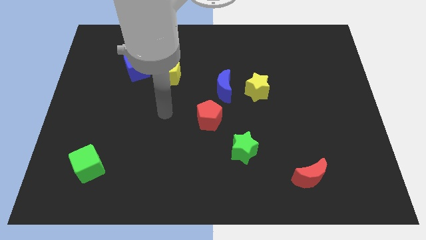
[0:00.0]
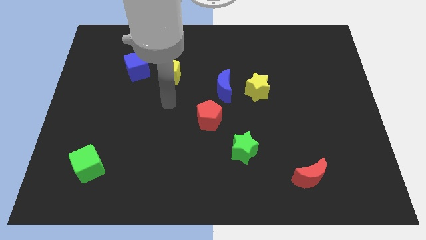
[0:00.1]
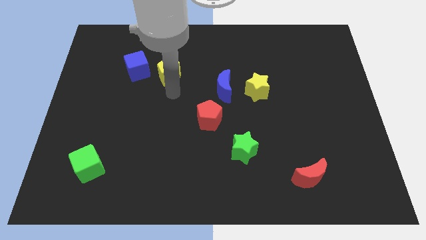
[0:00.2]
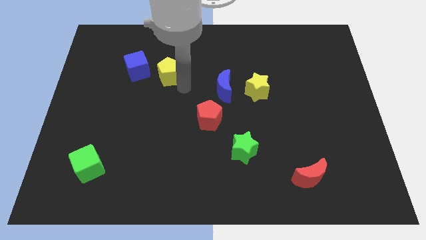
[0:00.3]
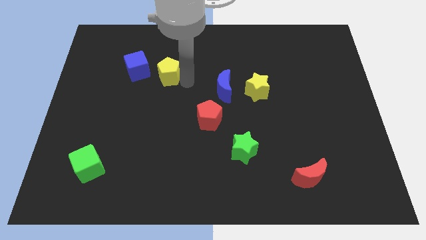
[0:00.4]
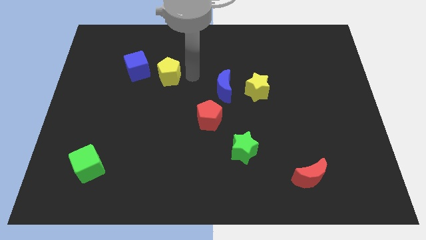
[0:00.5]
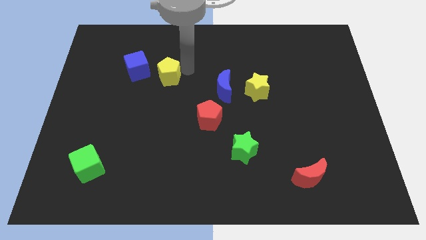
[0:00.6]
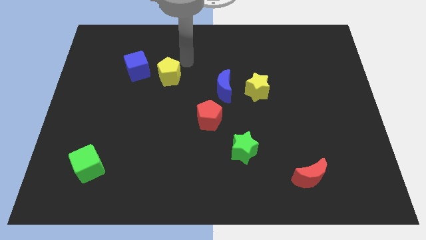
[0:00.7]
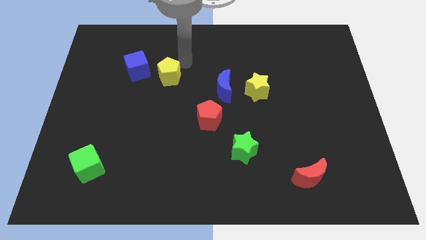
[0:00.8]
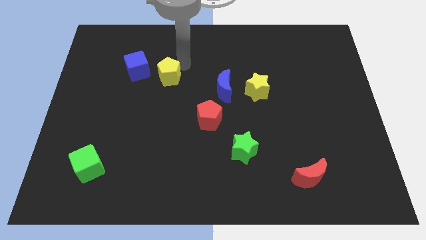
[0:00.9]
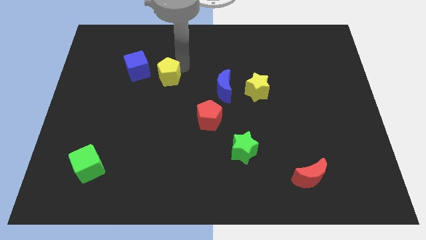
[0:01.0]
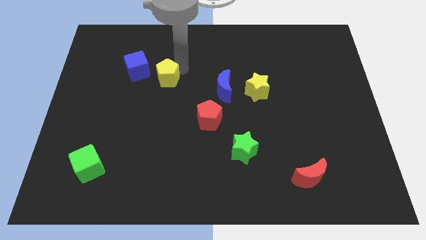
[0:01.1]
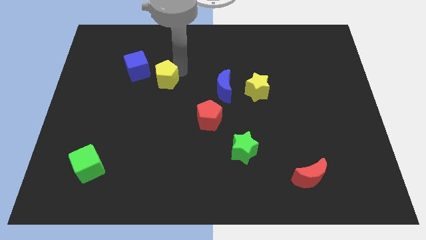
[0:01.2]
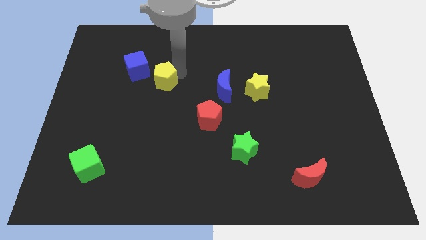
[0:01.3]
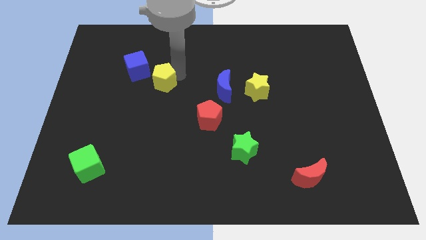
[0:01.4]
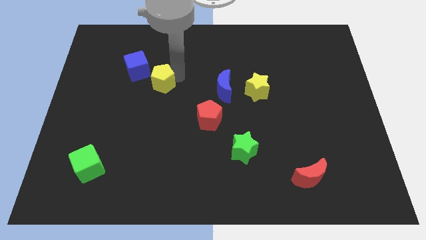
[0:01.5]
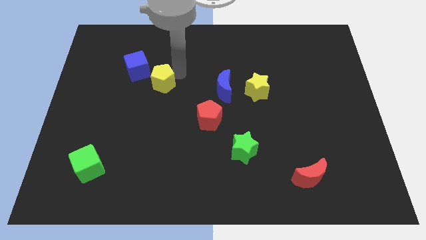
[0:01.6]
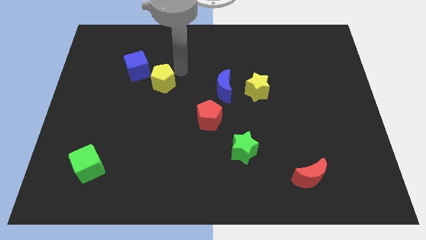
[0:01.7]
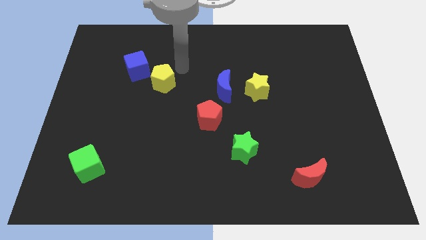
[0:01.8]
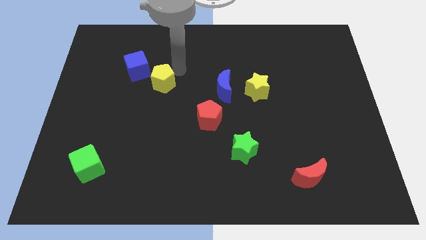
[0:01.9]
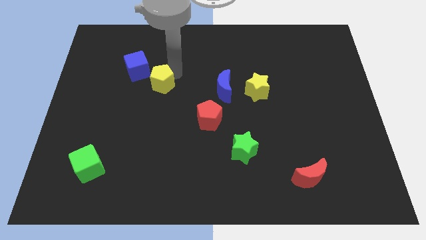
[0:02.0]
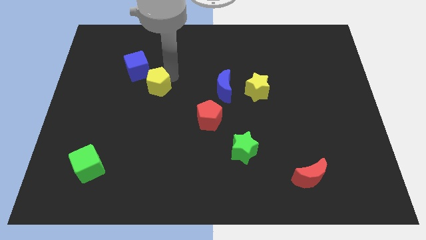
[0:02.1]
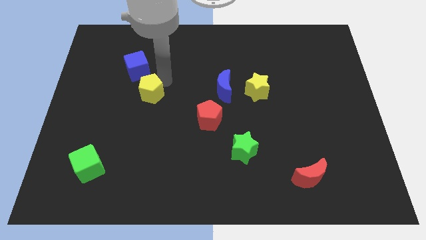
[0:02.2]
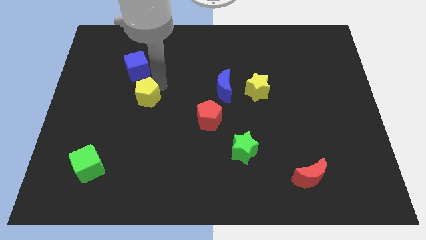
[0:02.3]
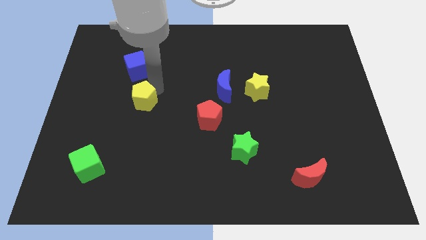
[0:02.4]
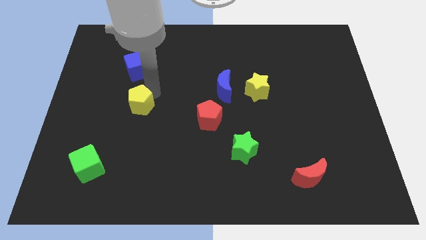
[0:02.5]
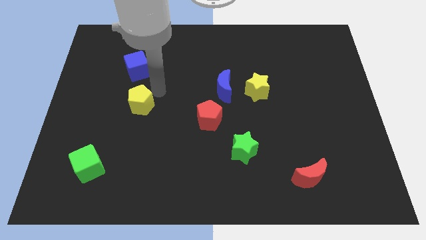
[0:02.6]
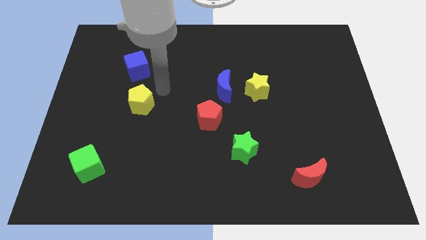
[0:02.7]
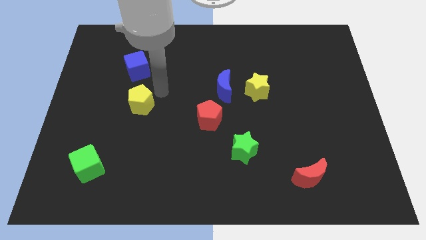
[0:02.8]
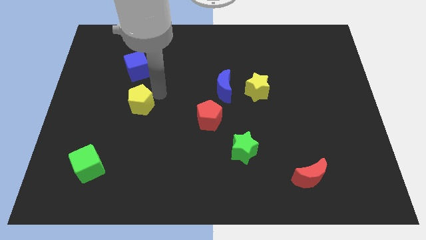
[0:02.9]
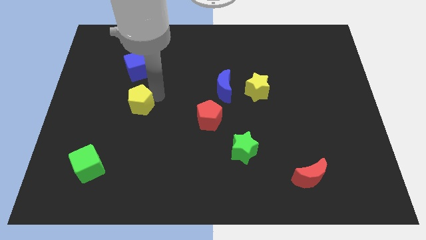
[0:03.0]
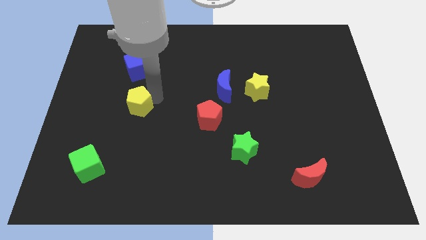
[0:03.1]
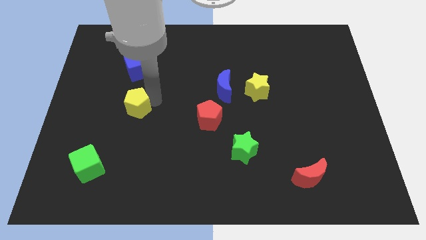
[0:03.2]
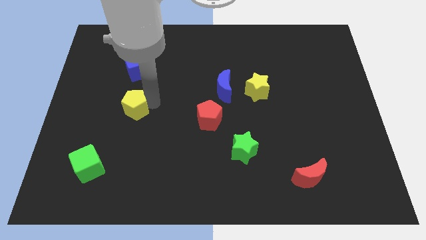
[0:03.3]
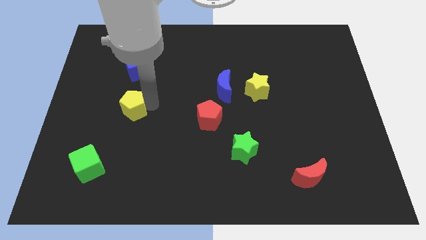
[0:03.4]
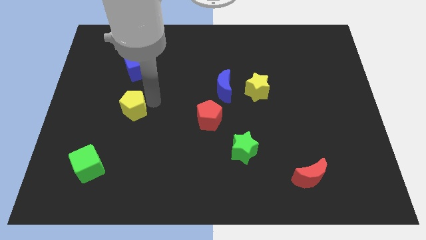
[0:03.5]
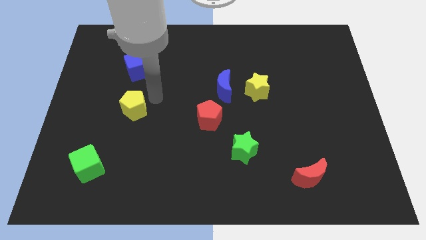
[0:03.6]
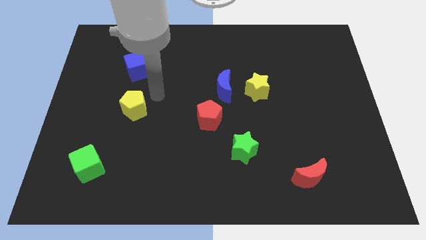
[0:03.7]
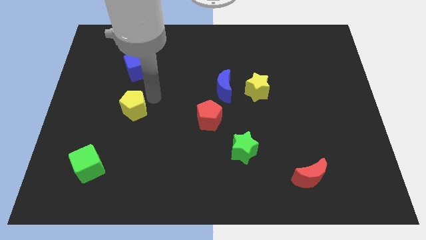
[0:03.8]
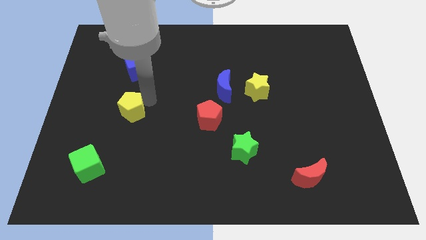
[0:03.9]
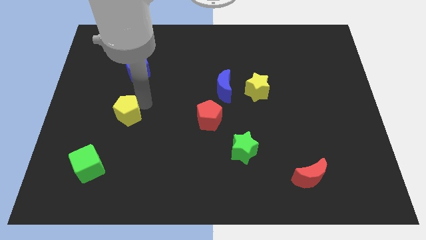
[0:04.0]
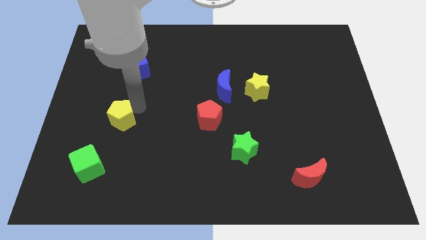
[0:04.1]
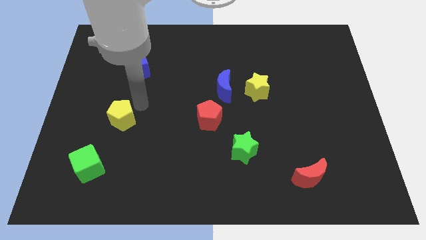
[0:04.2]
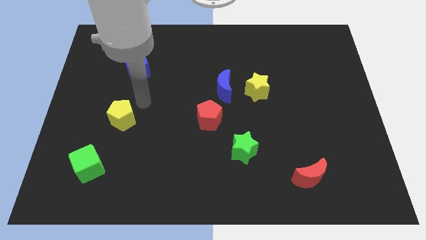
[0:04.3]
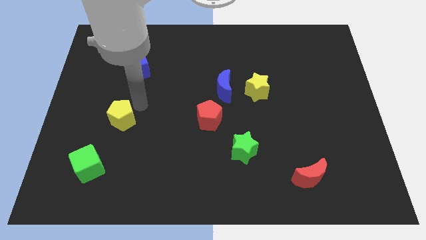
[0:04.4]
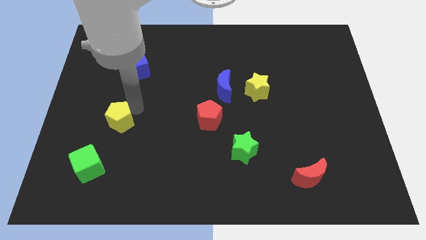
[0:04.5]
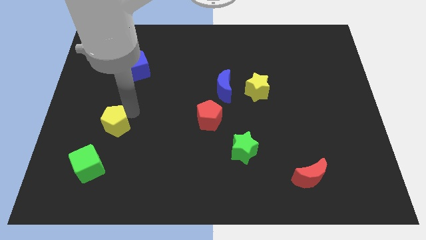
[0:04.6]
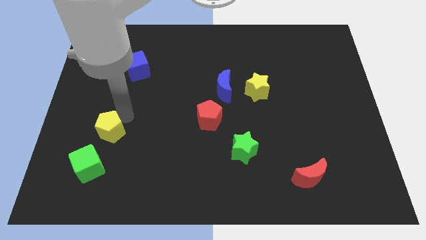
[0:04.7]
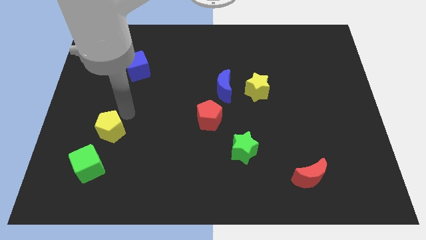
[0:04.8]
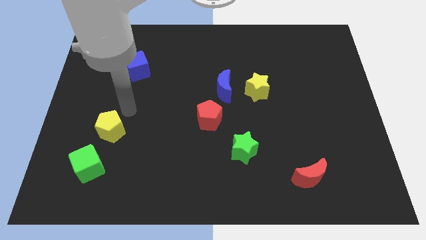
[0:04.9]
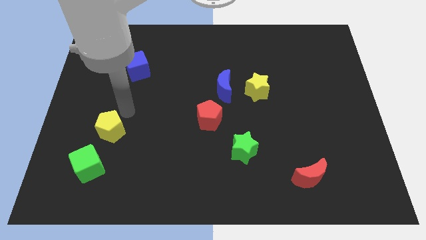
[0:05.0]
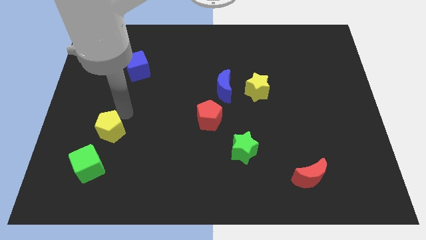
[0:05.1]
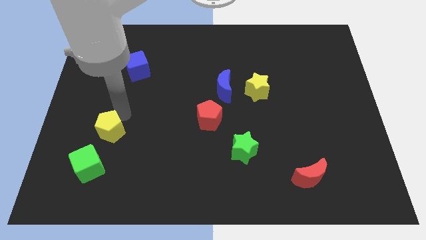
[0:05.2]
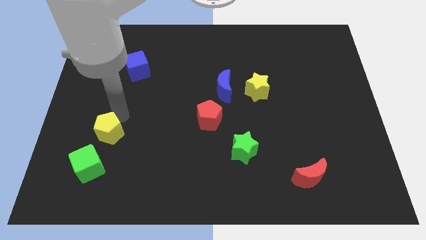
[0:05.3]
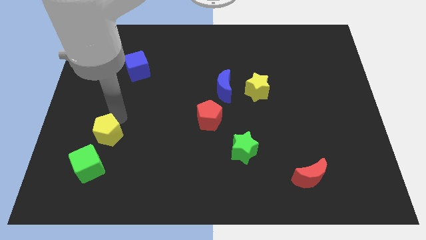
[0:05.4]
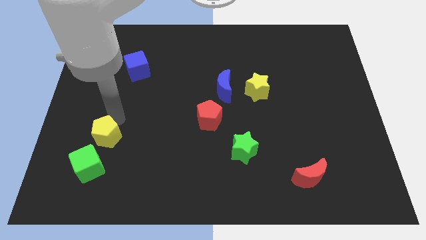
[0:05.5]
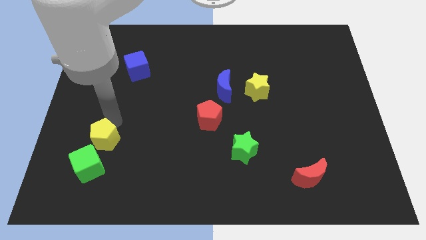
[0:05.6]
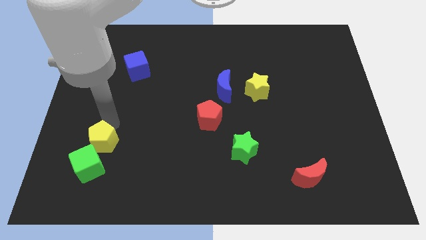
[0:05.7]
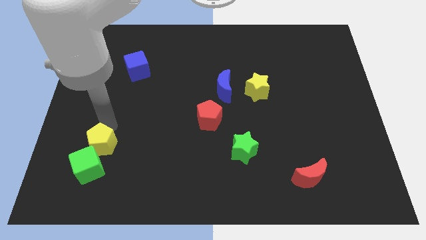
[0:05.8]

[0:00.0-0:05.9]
push the yellow pentagon close to the green cube

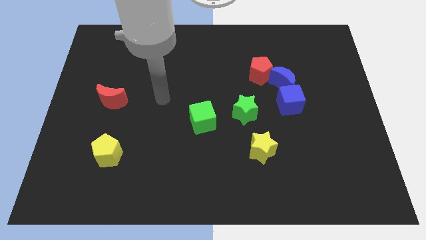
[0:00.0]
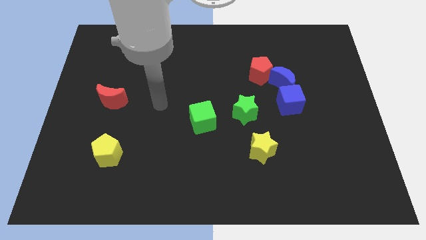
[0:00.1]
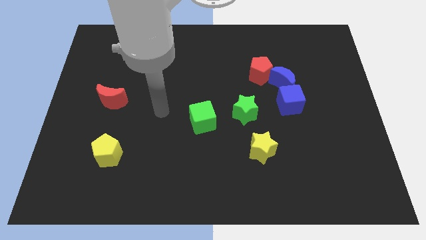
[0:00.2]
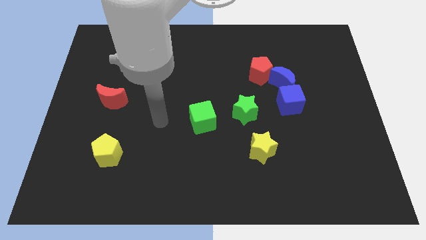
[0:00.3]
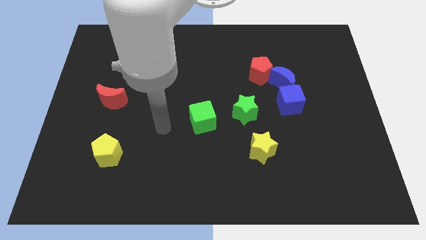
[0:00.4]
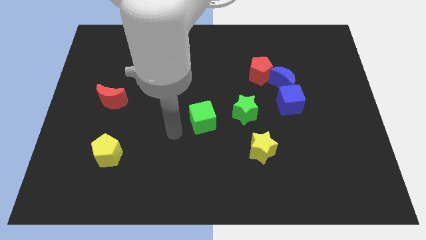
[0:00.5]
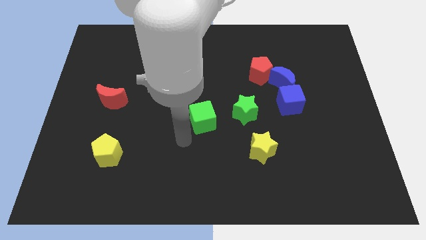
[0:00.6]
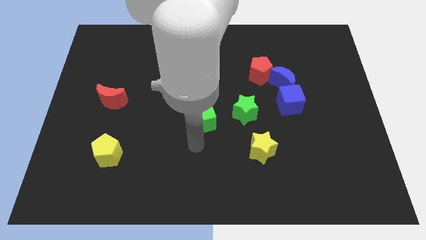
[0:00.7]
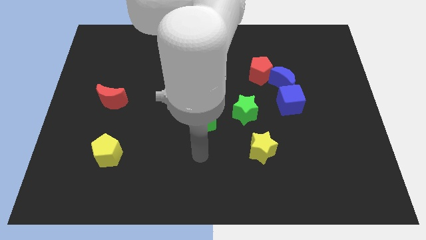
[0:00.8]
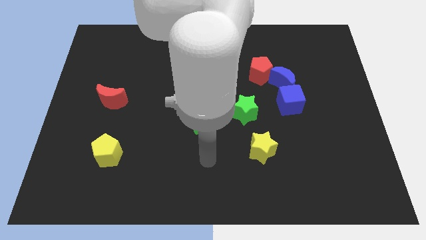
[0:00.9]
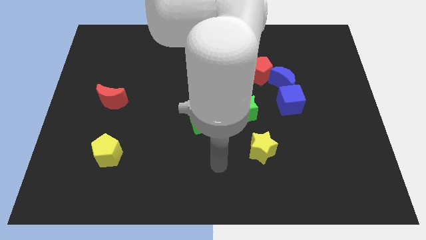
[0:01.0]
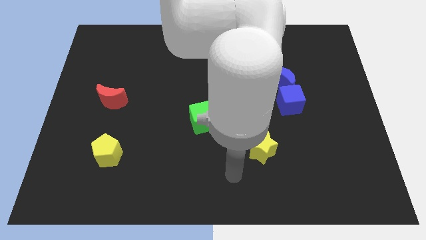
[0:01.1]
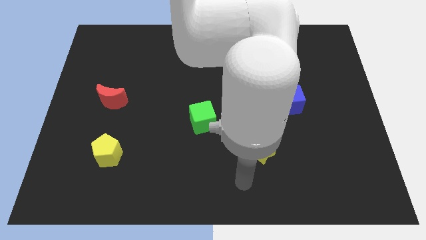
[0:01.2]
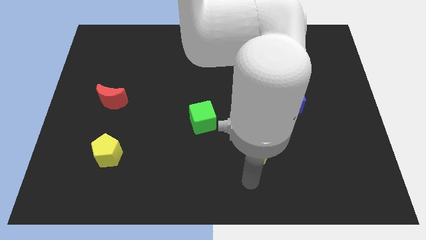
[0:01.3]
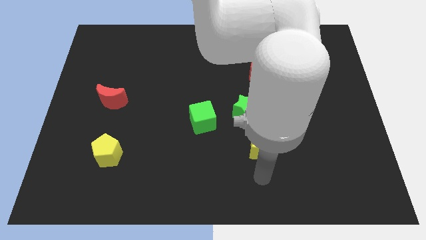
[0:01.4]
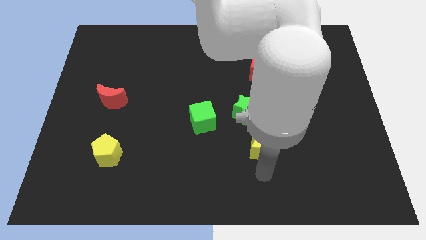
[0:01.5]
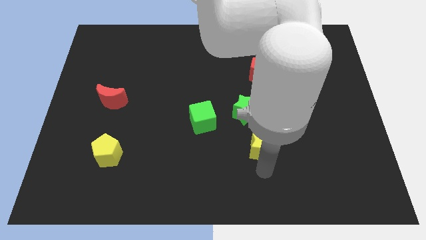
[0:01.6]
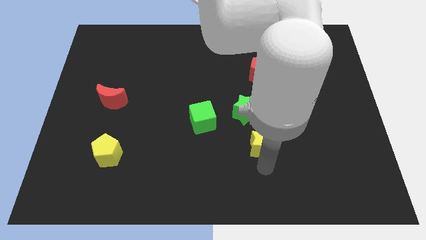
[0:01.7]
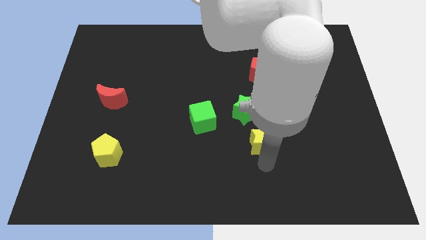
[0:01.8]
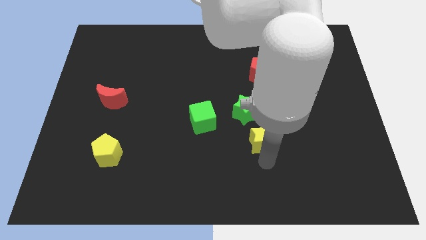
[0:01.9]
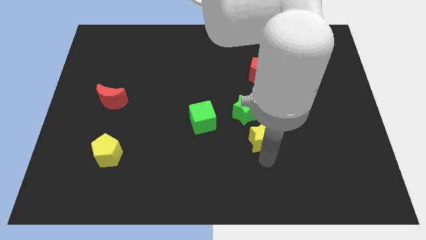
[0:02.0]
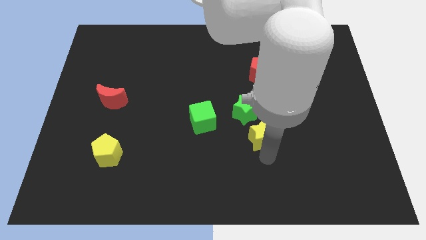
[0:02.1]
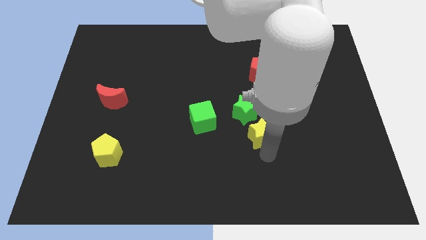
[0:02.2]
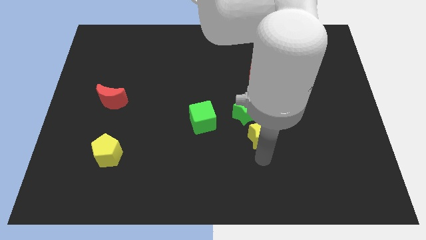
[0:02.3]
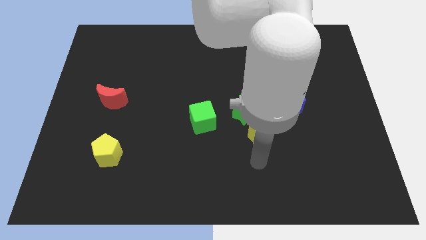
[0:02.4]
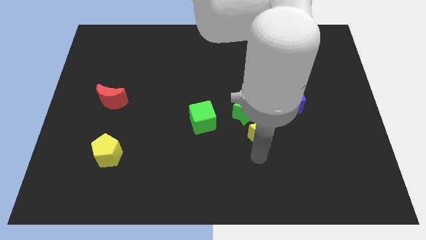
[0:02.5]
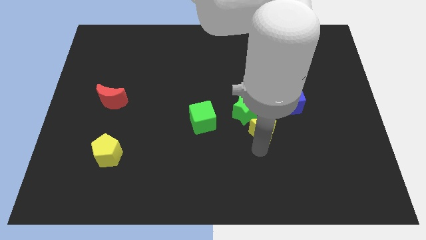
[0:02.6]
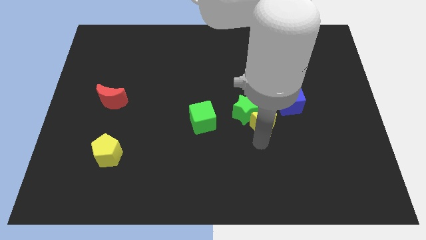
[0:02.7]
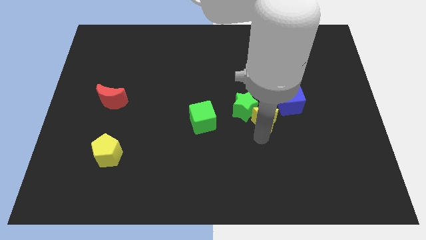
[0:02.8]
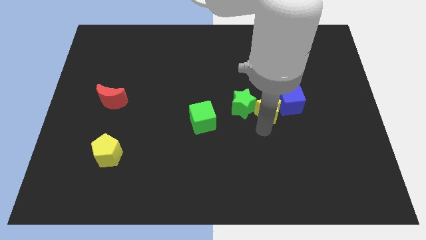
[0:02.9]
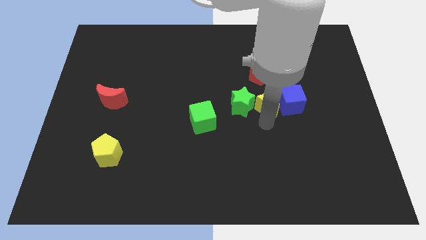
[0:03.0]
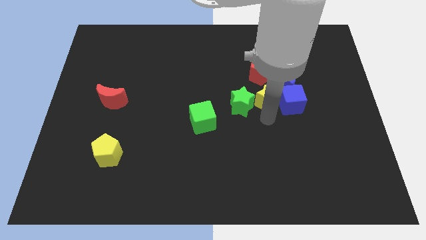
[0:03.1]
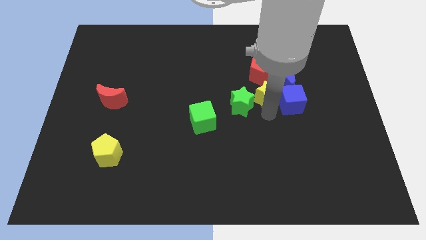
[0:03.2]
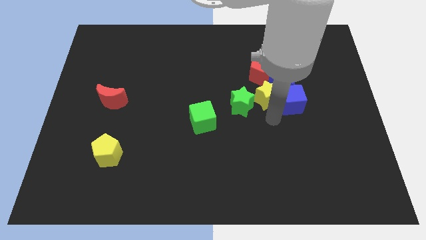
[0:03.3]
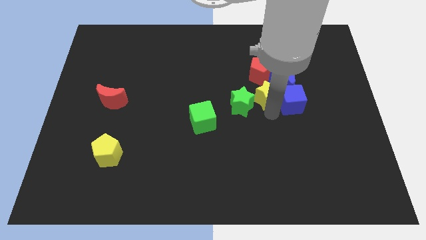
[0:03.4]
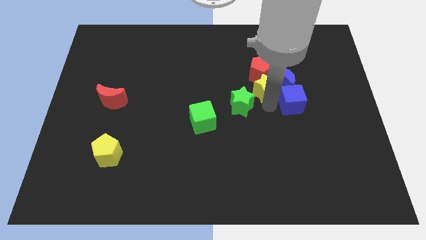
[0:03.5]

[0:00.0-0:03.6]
slide the yellow star next to the red pentagon
